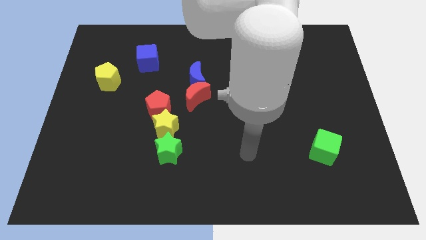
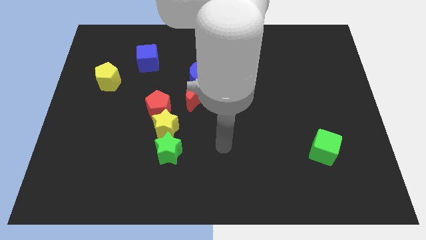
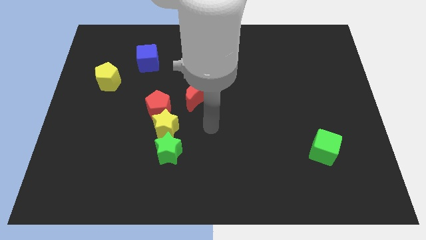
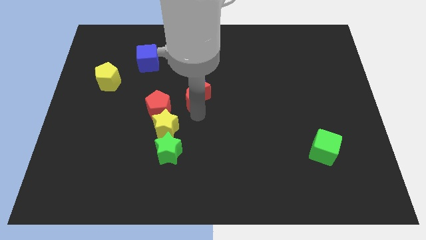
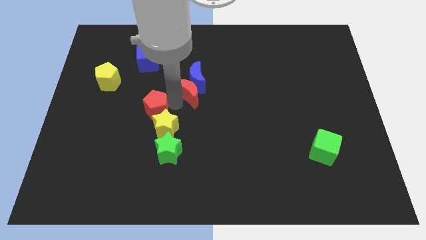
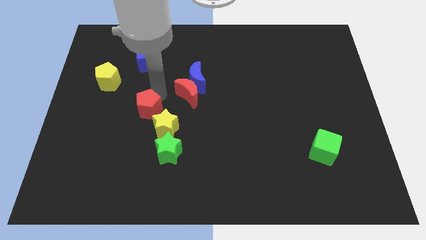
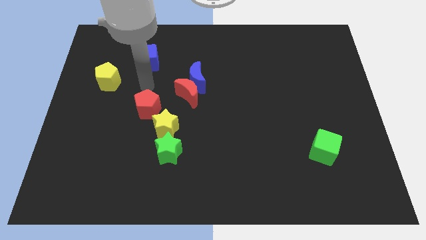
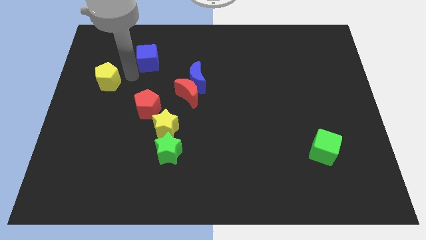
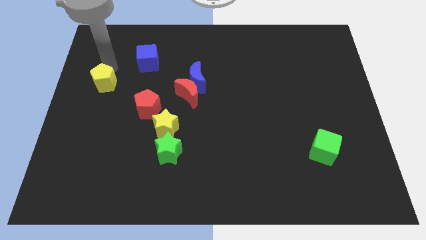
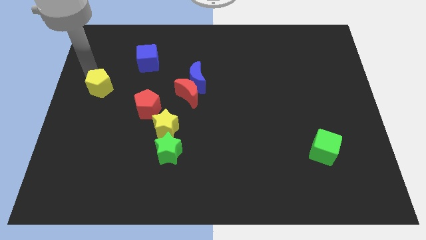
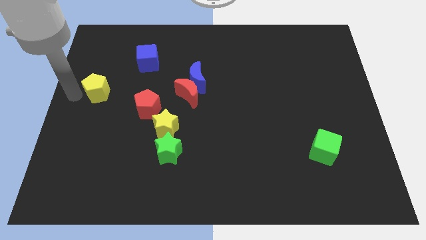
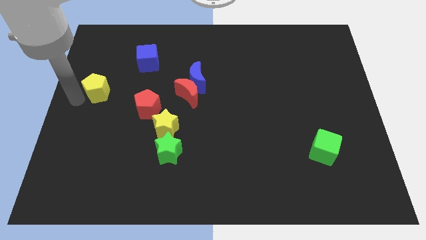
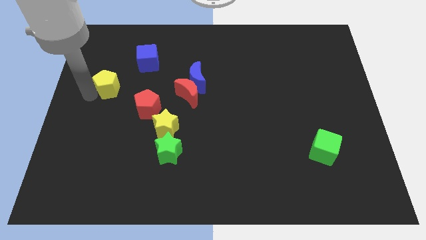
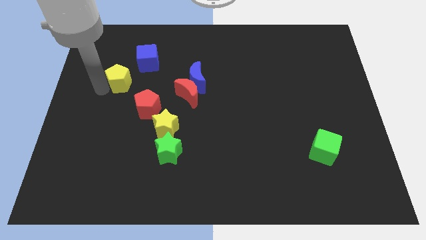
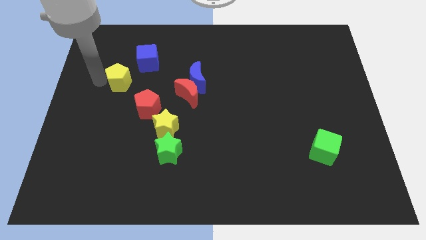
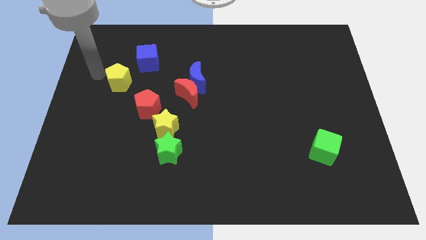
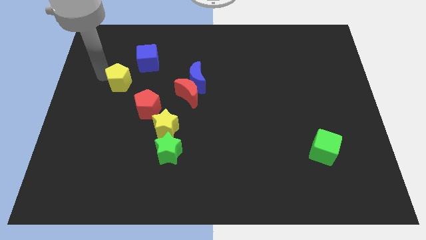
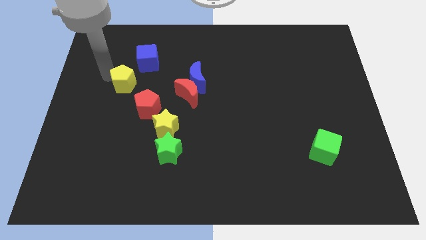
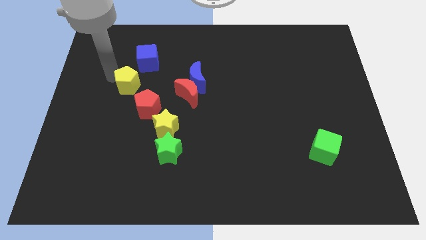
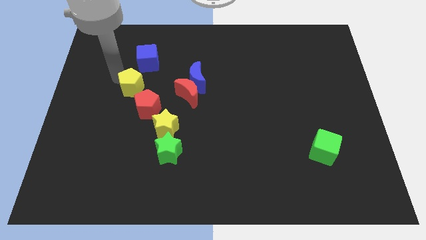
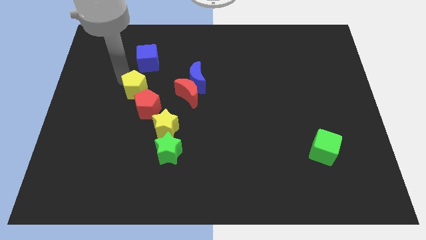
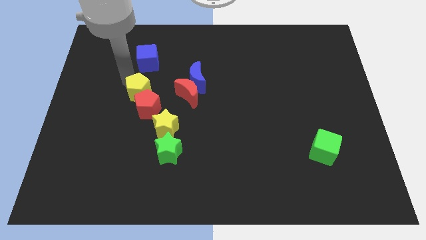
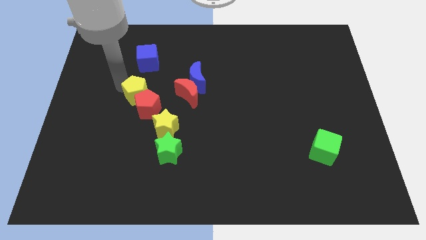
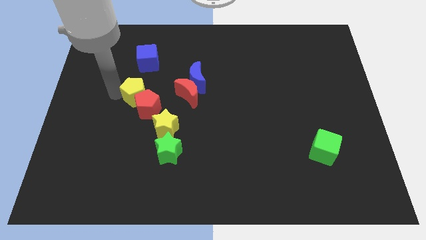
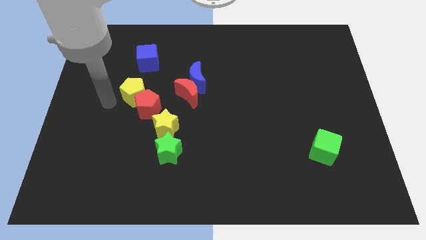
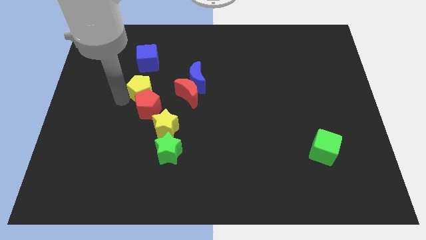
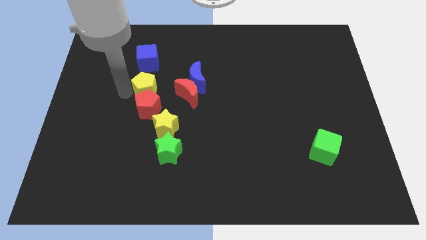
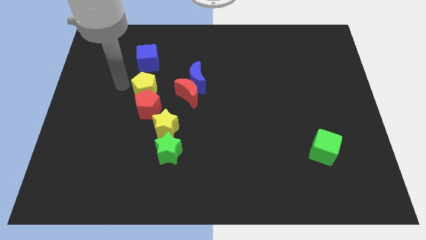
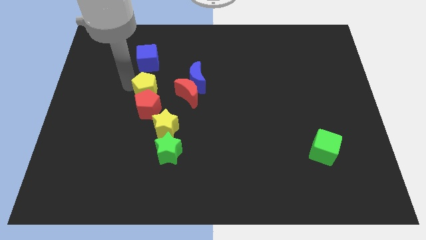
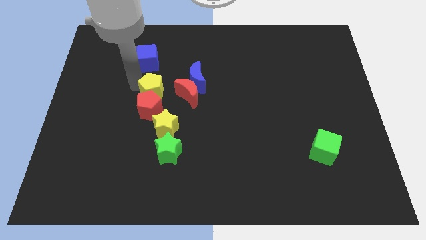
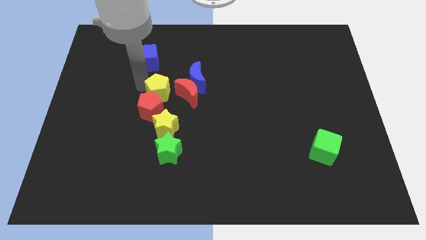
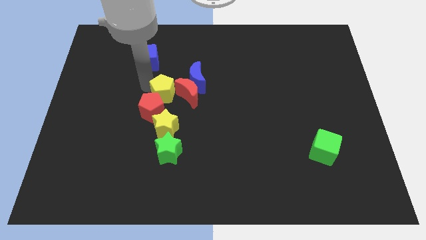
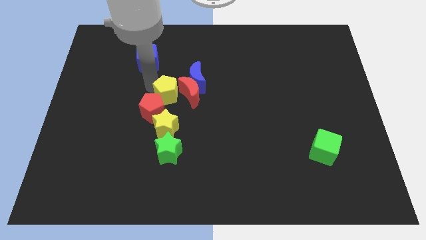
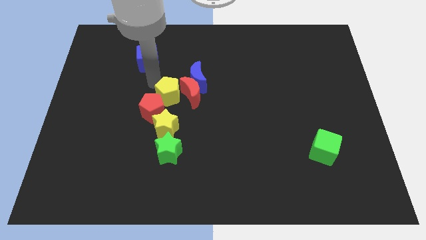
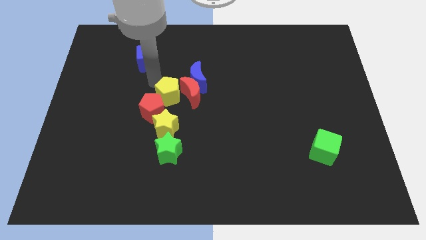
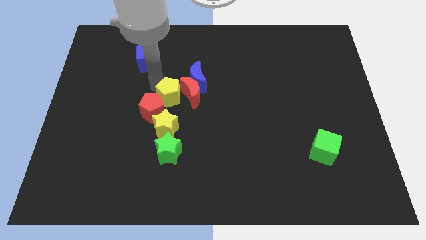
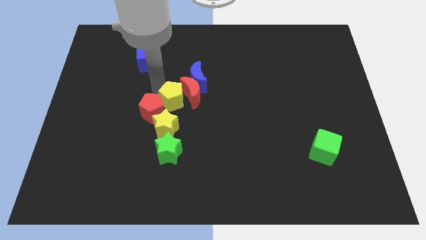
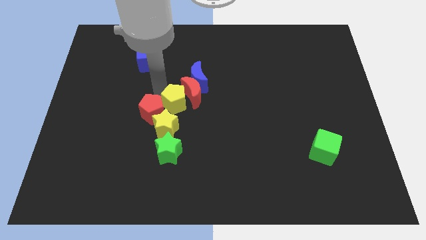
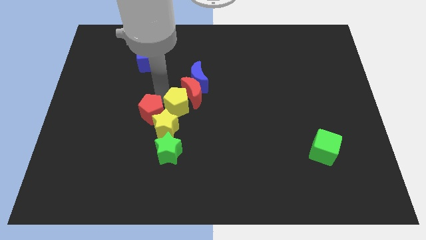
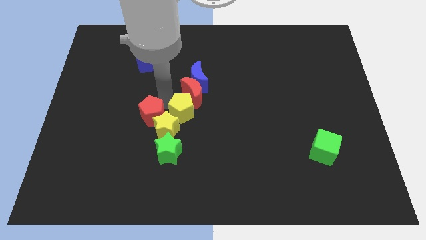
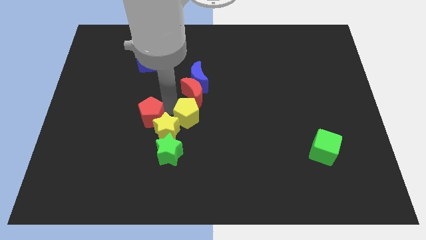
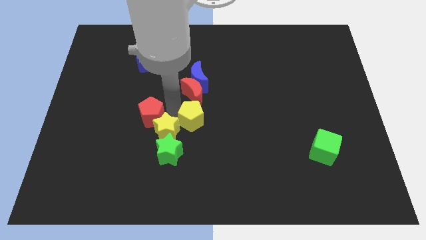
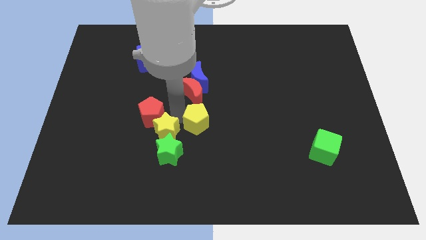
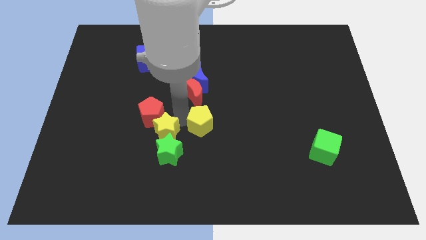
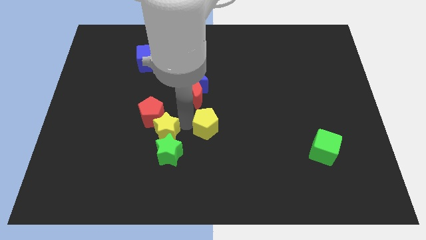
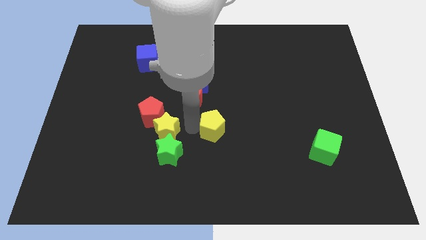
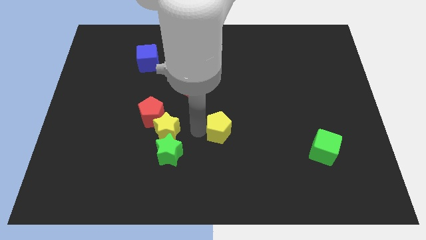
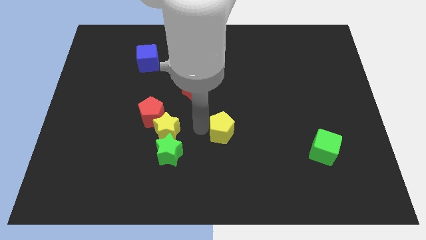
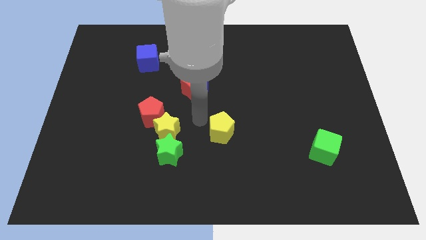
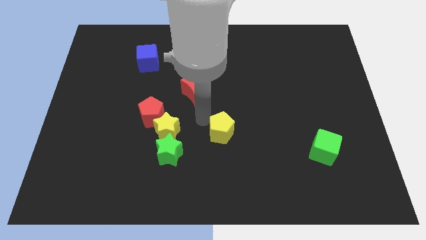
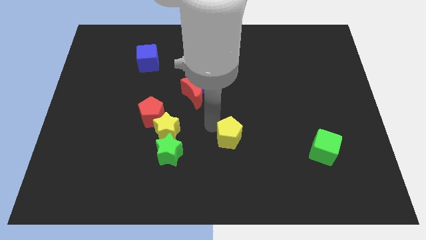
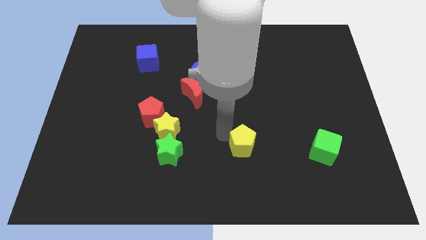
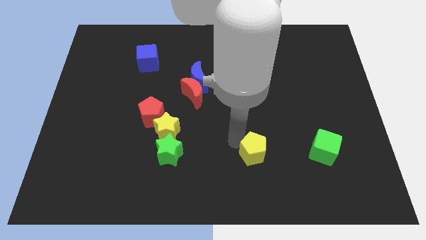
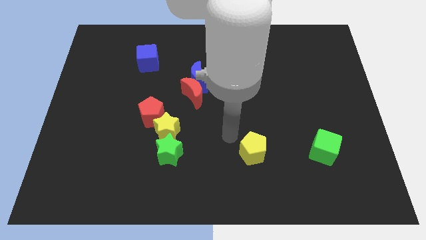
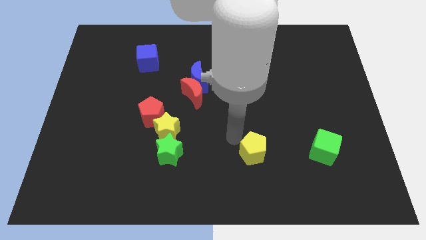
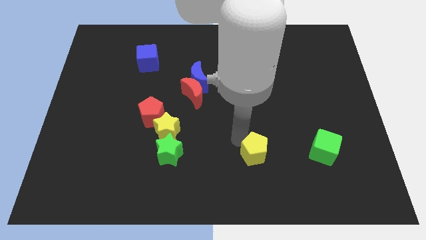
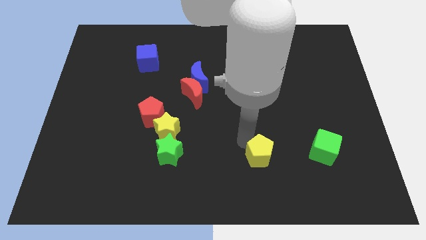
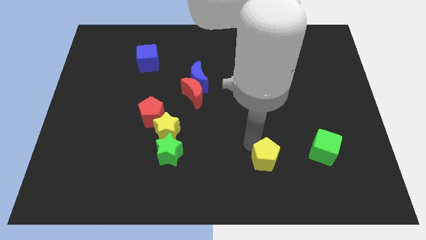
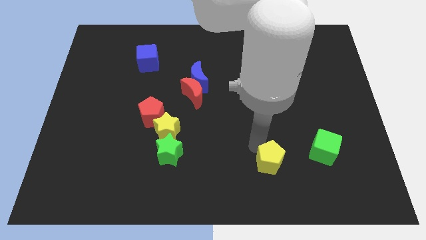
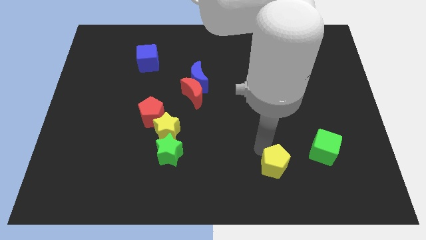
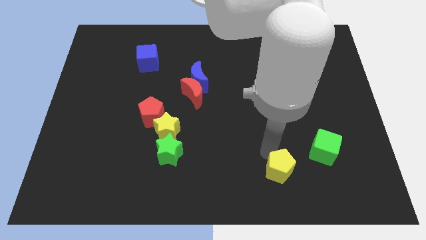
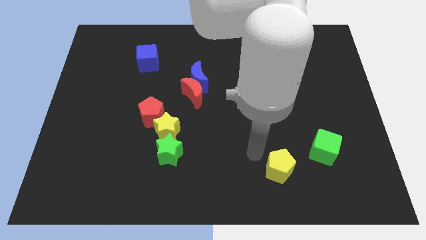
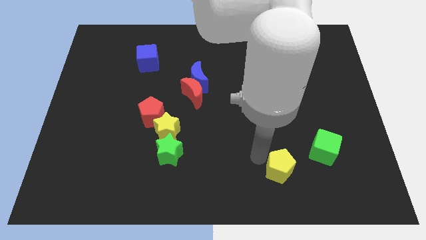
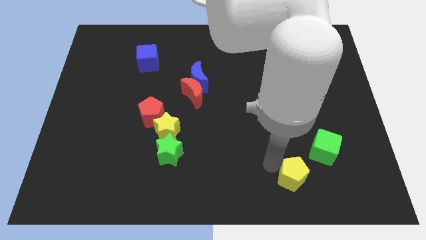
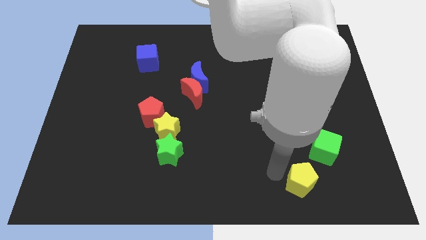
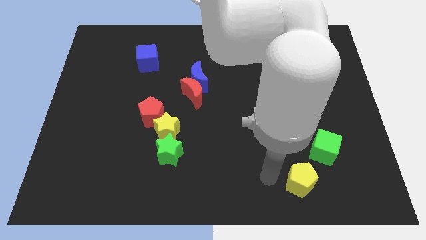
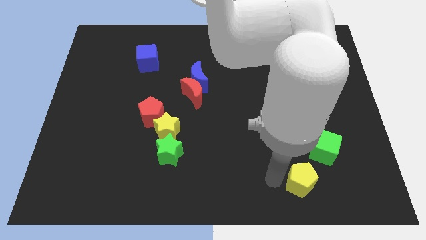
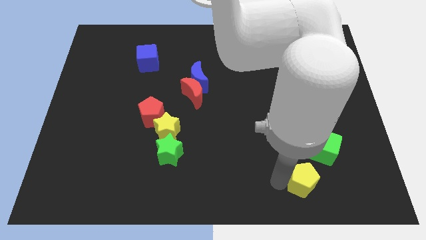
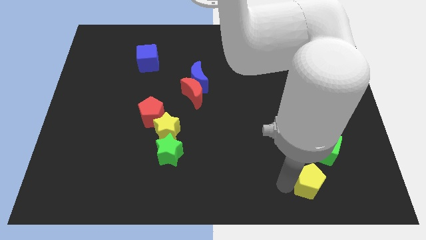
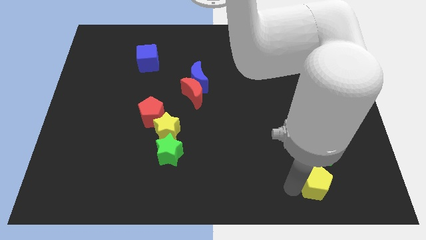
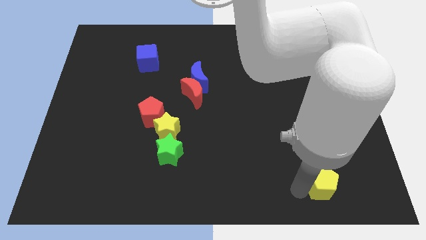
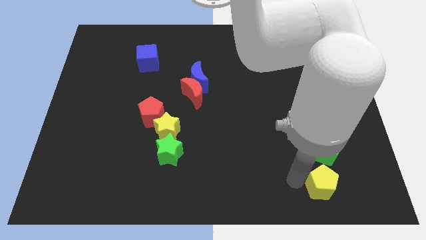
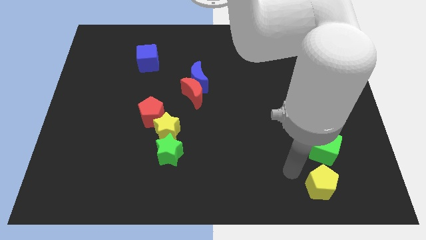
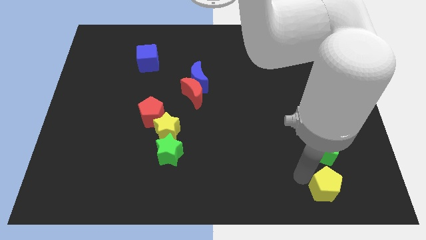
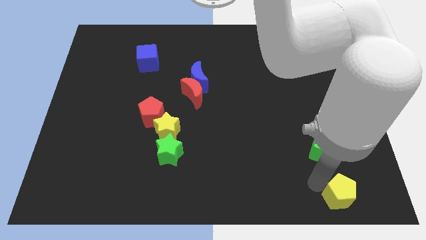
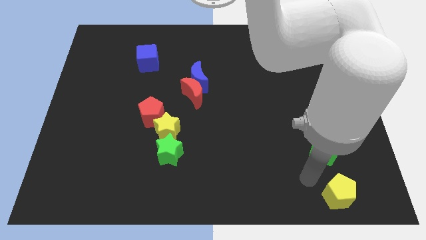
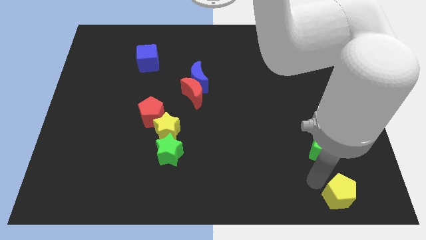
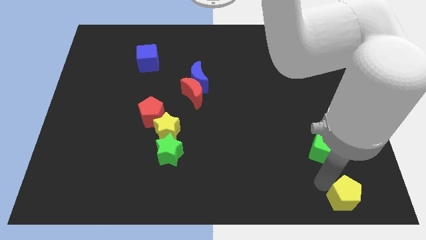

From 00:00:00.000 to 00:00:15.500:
slide the yellow pentagon to the bottom right corner
